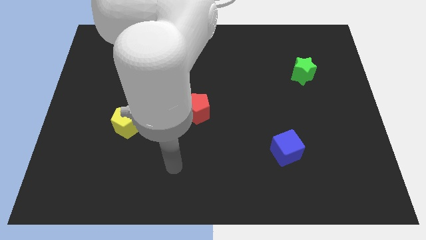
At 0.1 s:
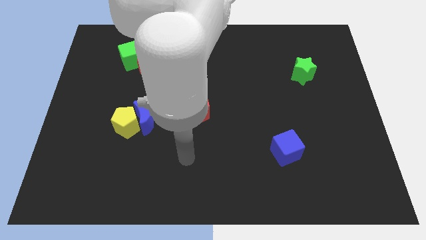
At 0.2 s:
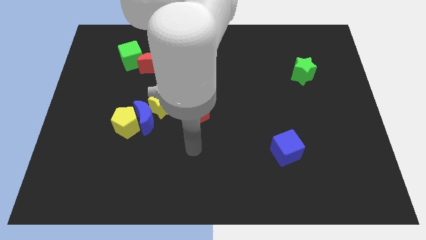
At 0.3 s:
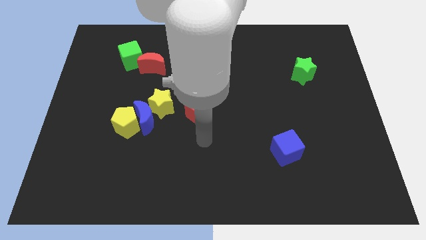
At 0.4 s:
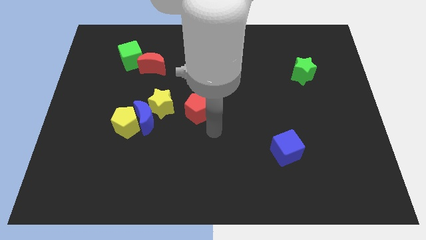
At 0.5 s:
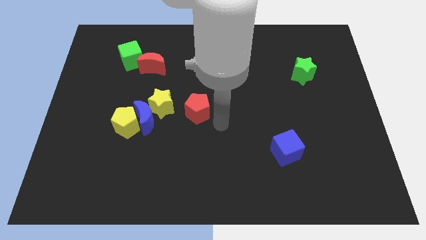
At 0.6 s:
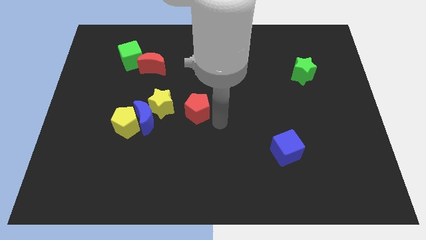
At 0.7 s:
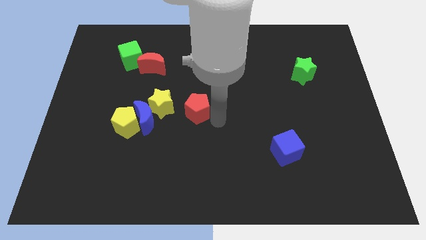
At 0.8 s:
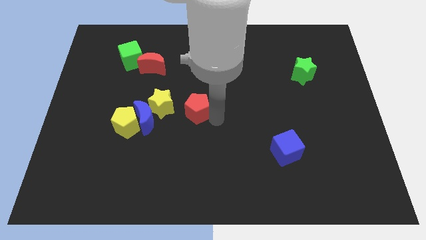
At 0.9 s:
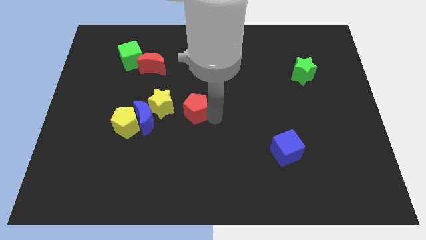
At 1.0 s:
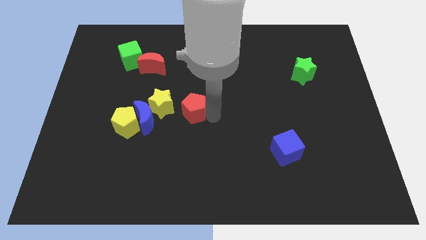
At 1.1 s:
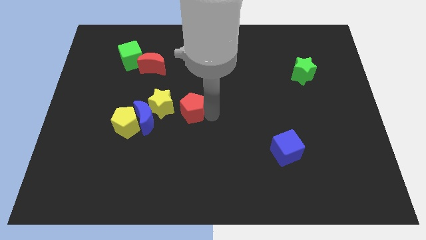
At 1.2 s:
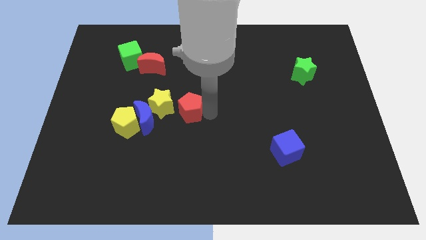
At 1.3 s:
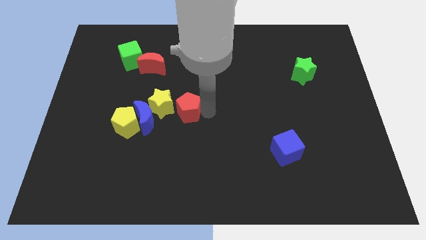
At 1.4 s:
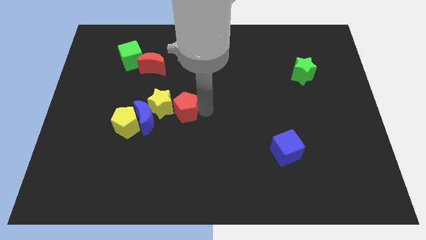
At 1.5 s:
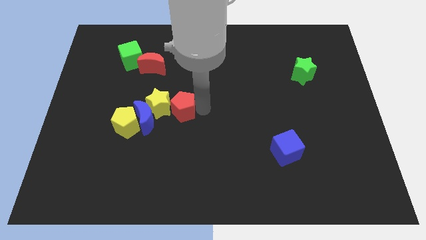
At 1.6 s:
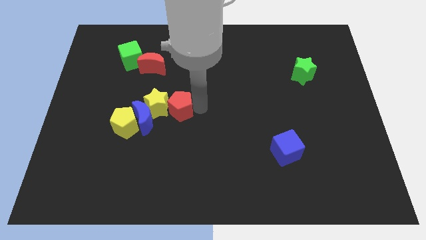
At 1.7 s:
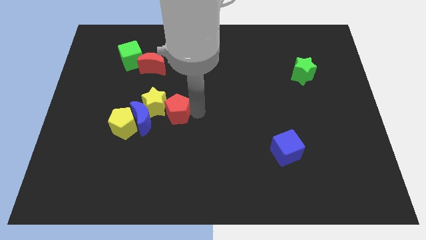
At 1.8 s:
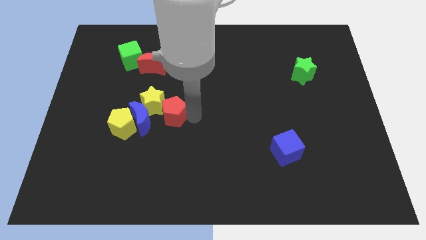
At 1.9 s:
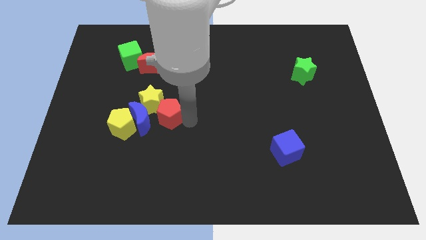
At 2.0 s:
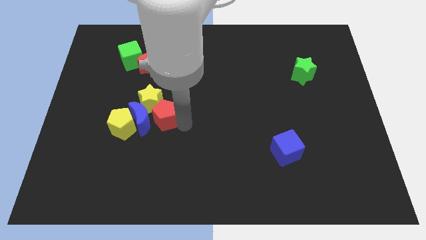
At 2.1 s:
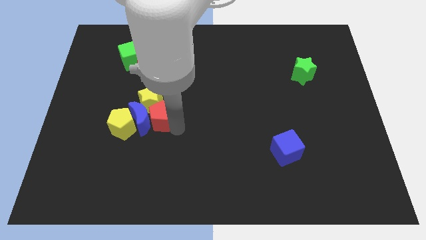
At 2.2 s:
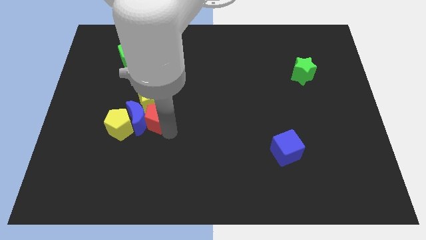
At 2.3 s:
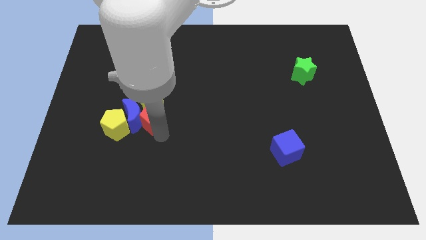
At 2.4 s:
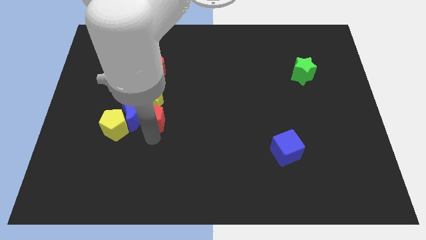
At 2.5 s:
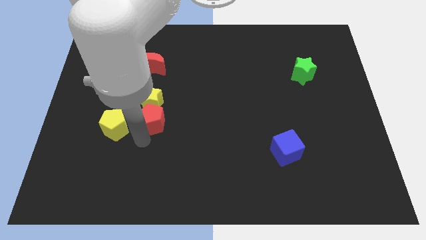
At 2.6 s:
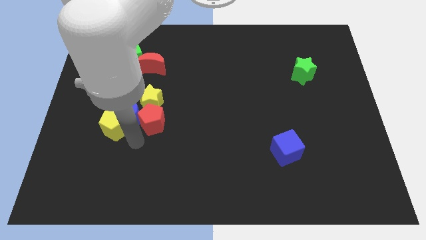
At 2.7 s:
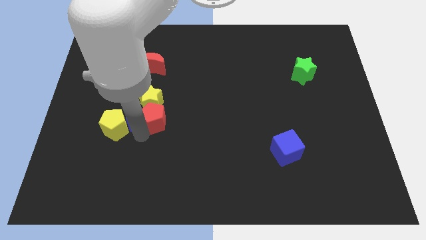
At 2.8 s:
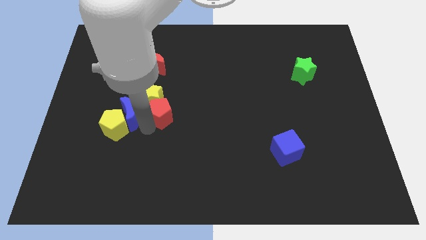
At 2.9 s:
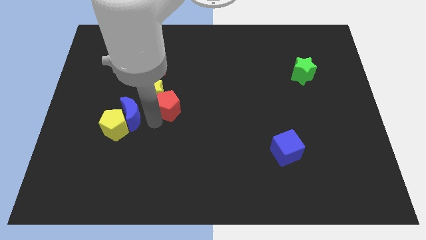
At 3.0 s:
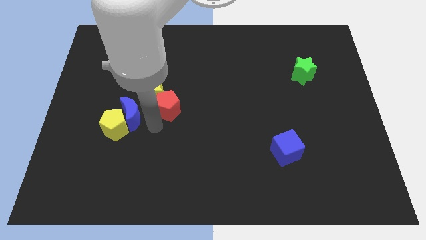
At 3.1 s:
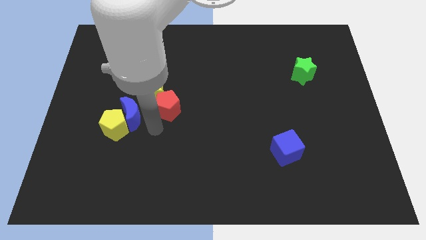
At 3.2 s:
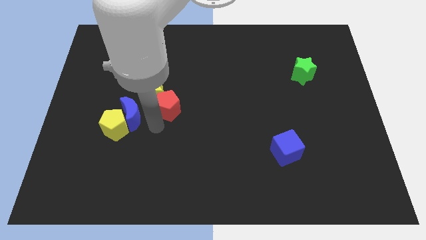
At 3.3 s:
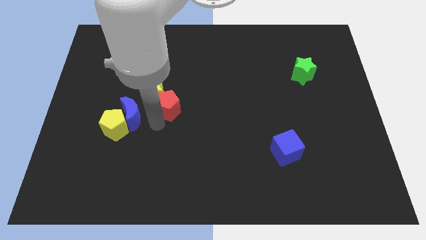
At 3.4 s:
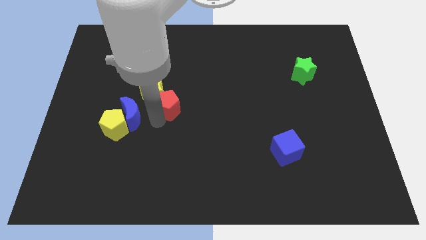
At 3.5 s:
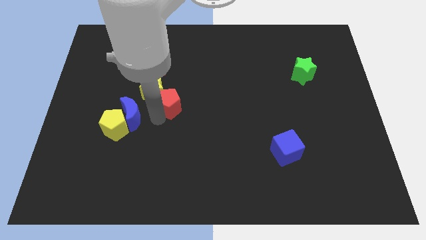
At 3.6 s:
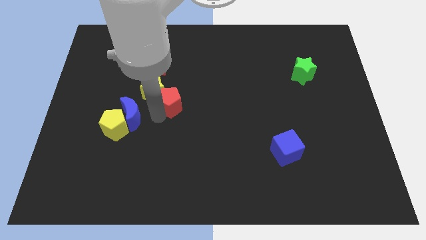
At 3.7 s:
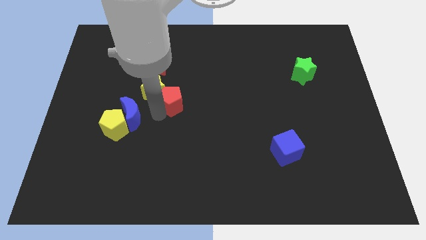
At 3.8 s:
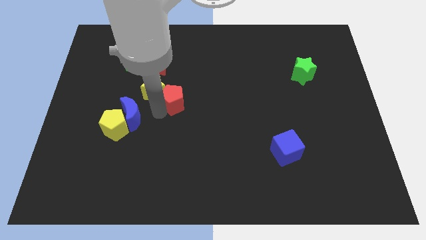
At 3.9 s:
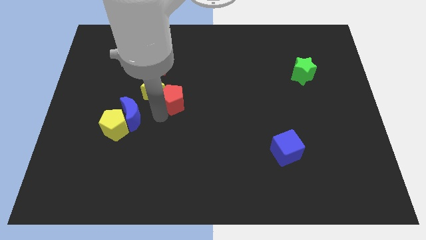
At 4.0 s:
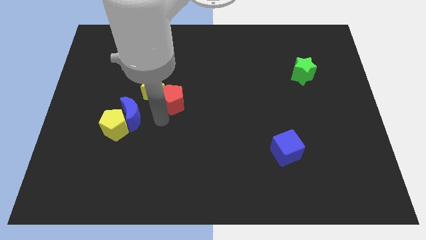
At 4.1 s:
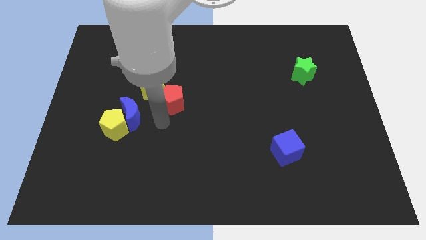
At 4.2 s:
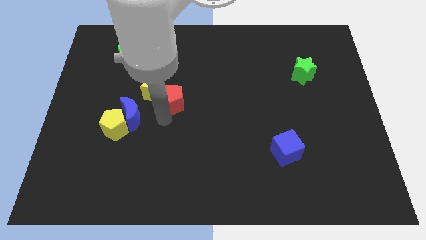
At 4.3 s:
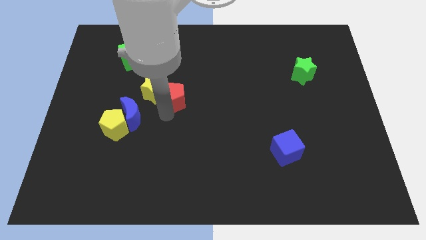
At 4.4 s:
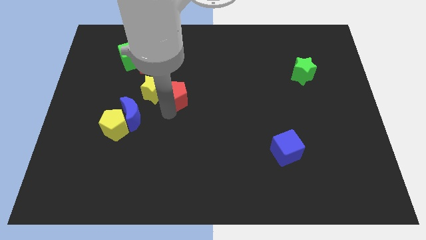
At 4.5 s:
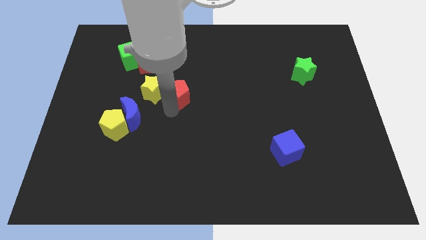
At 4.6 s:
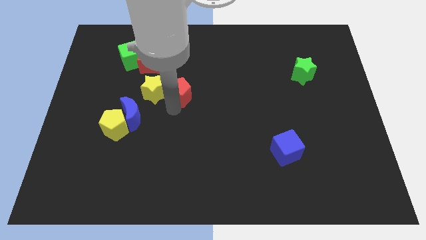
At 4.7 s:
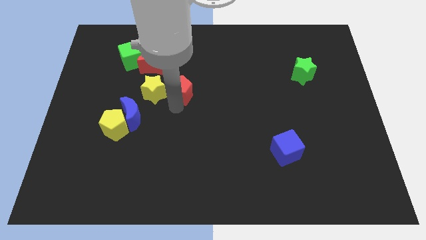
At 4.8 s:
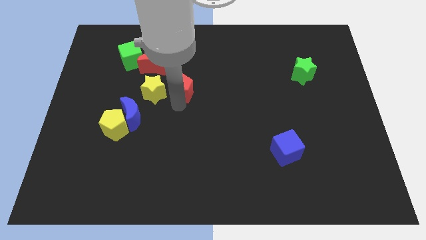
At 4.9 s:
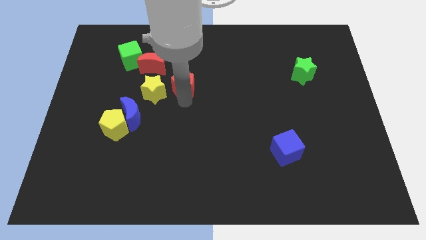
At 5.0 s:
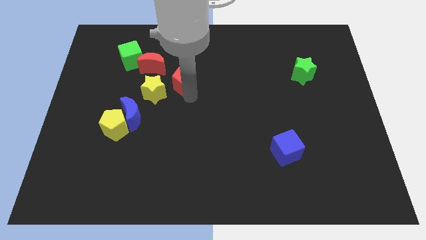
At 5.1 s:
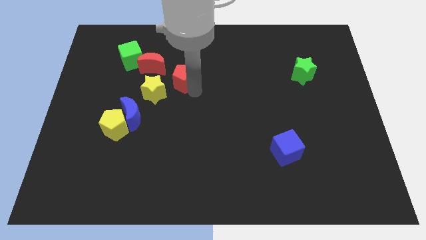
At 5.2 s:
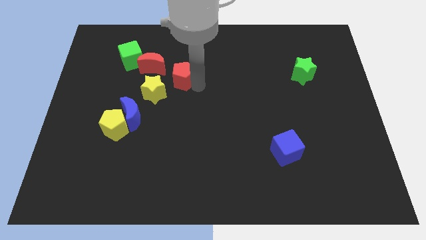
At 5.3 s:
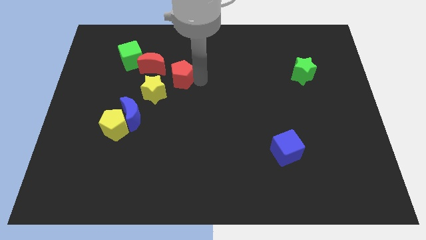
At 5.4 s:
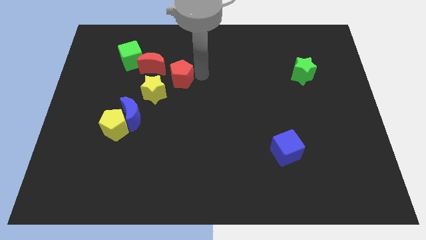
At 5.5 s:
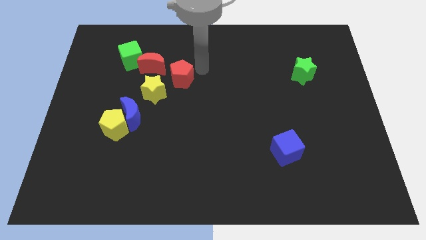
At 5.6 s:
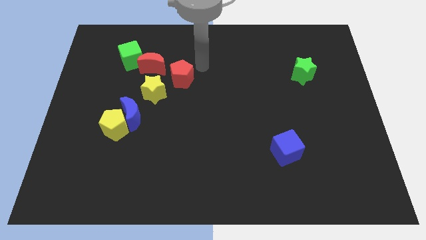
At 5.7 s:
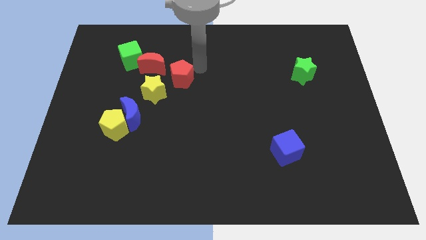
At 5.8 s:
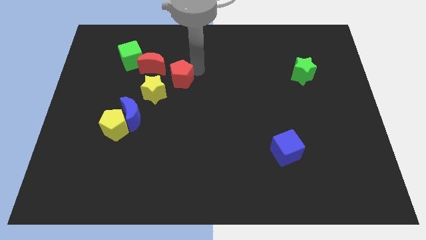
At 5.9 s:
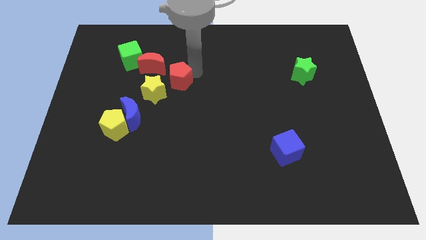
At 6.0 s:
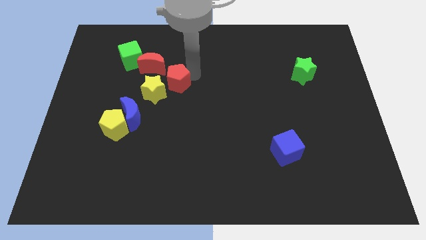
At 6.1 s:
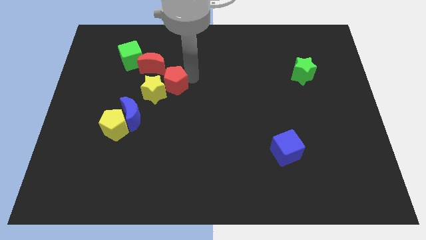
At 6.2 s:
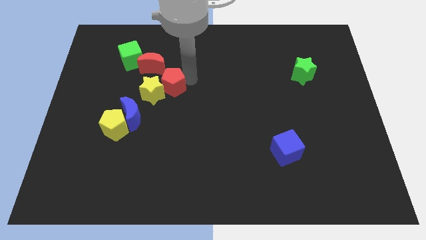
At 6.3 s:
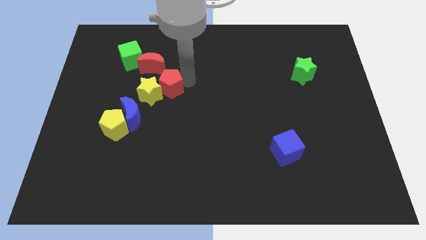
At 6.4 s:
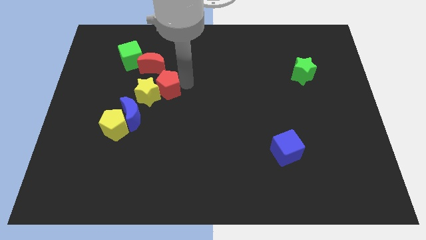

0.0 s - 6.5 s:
push the red pentagon to the bottom of the red moon

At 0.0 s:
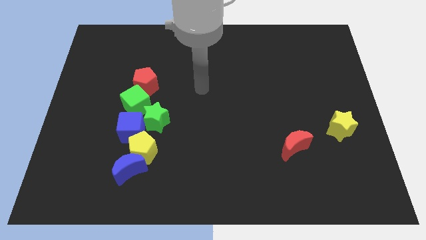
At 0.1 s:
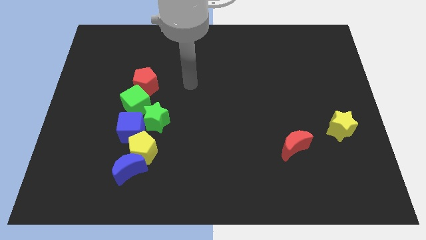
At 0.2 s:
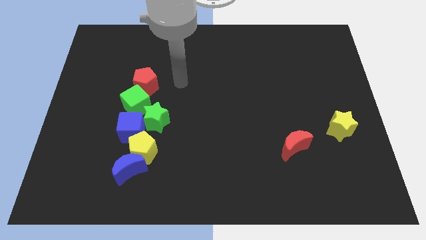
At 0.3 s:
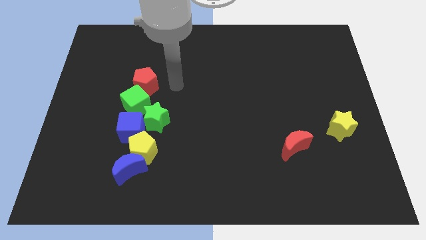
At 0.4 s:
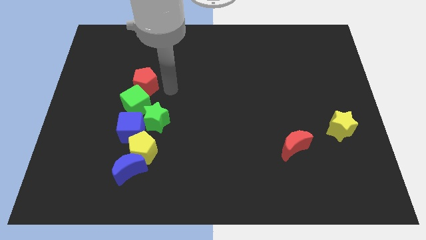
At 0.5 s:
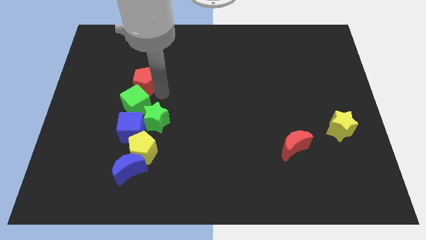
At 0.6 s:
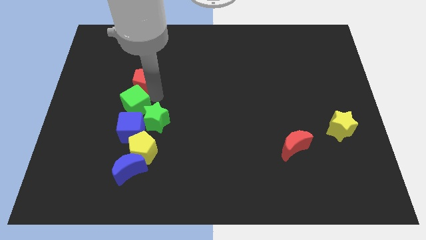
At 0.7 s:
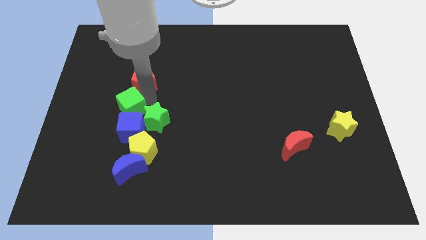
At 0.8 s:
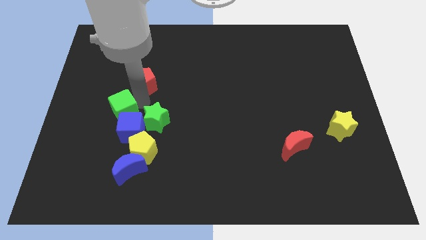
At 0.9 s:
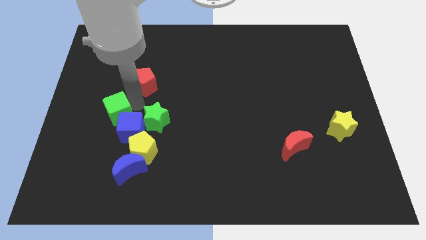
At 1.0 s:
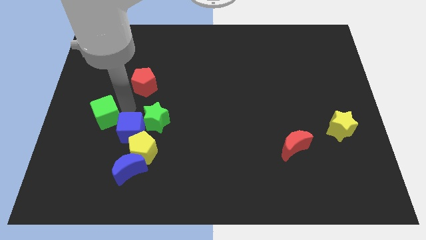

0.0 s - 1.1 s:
slide the green cube to the left of the blue cube

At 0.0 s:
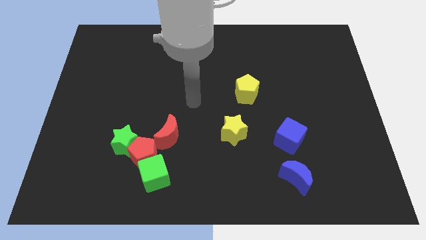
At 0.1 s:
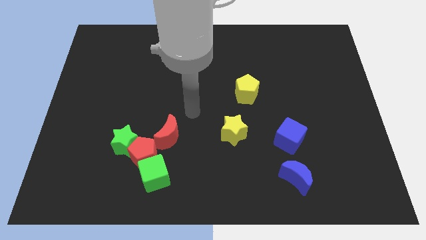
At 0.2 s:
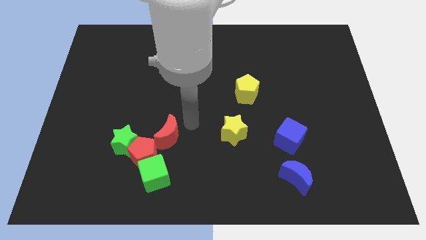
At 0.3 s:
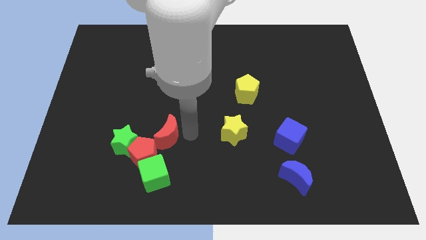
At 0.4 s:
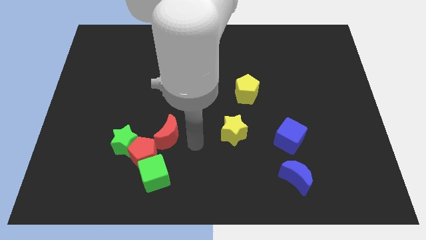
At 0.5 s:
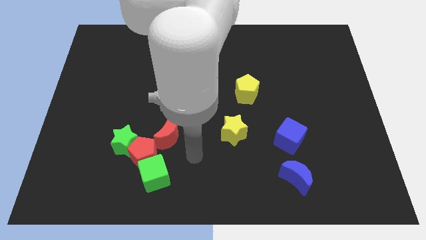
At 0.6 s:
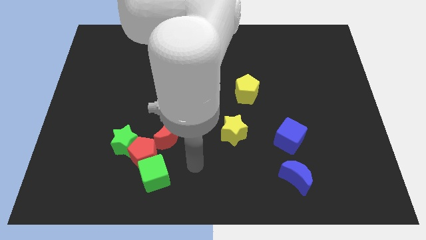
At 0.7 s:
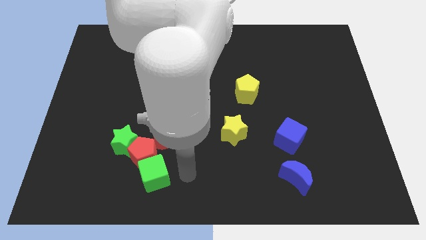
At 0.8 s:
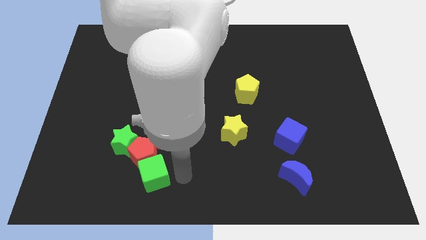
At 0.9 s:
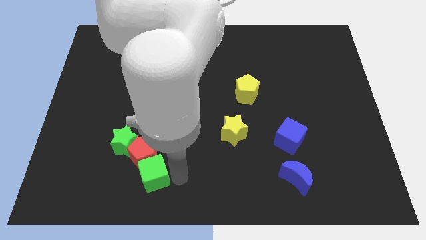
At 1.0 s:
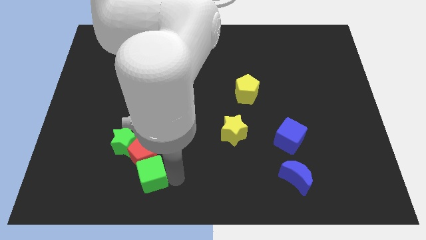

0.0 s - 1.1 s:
move the green cube diagonally down and to the left of the red moon
